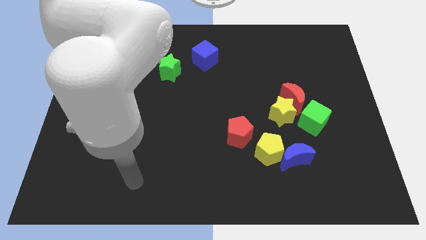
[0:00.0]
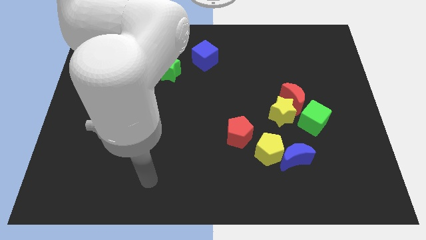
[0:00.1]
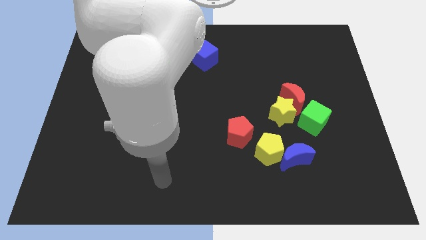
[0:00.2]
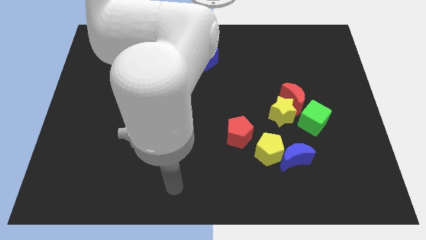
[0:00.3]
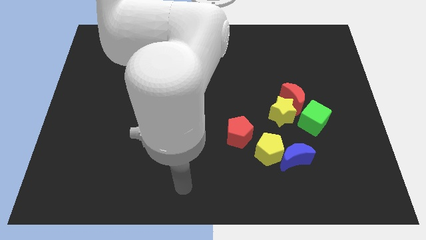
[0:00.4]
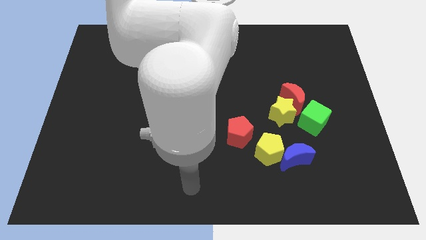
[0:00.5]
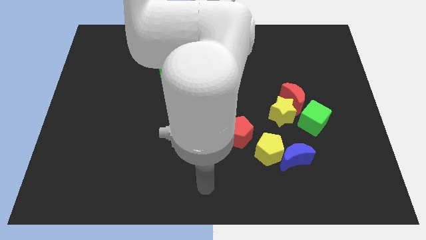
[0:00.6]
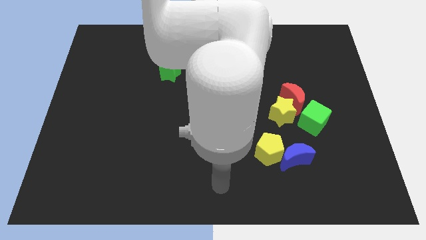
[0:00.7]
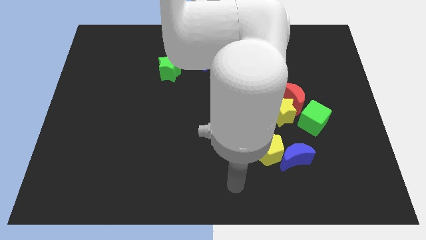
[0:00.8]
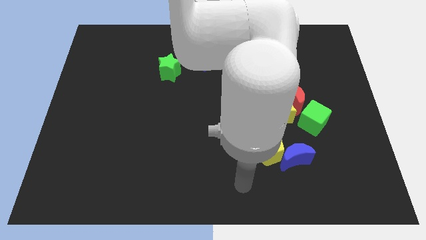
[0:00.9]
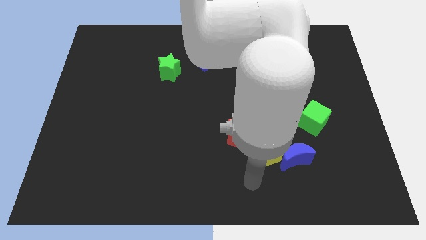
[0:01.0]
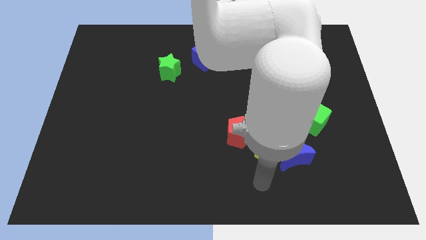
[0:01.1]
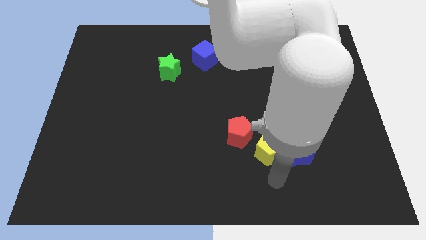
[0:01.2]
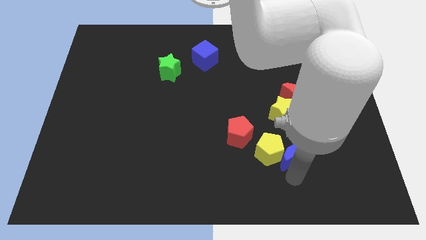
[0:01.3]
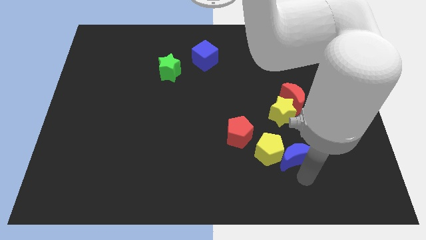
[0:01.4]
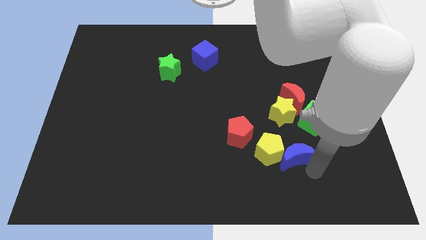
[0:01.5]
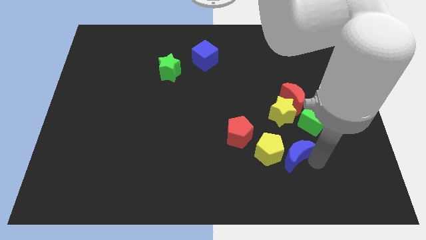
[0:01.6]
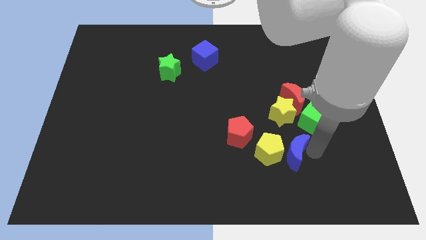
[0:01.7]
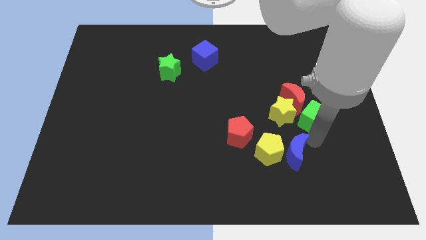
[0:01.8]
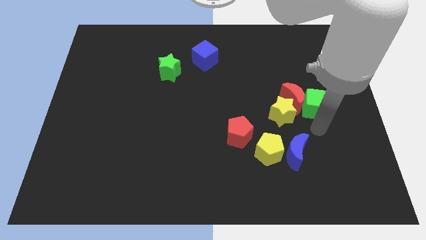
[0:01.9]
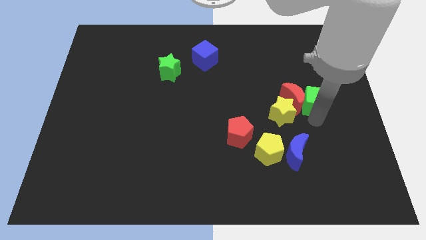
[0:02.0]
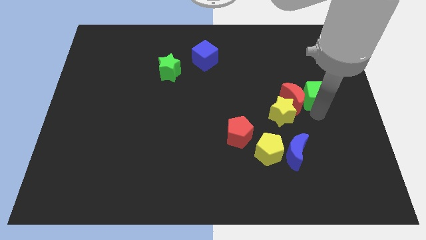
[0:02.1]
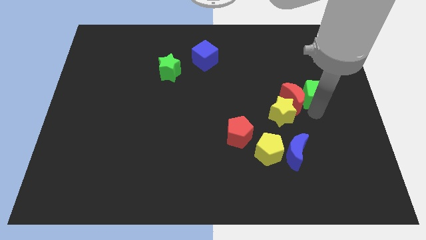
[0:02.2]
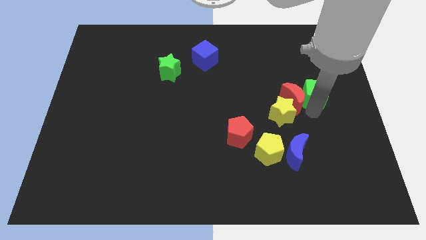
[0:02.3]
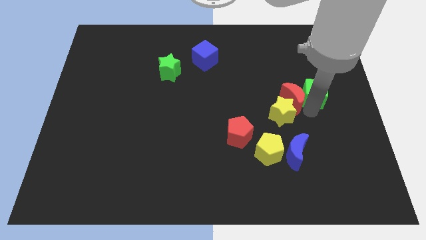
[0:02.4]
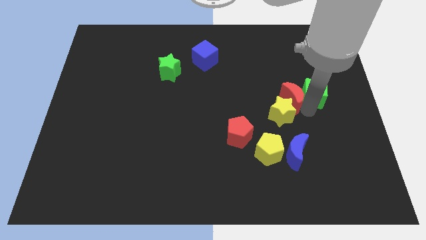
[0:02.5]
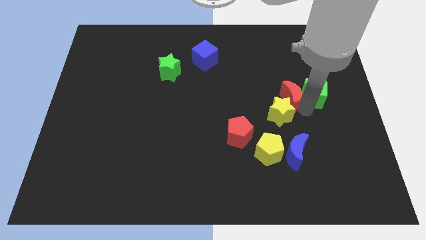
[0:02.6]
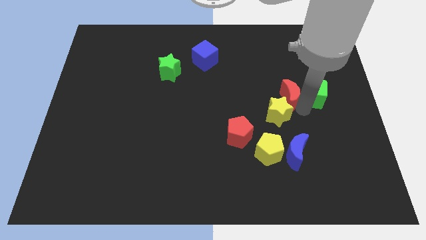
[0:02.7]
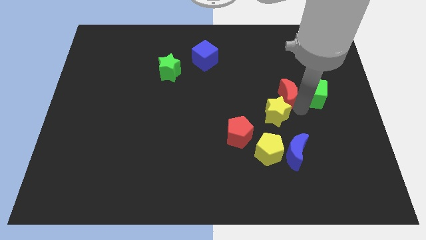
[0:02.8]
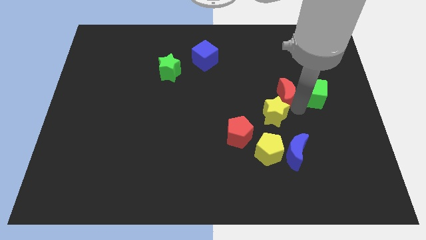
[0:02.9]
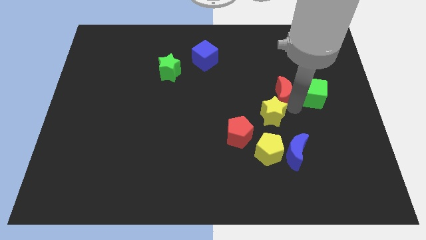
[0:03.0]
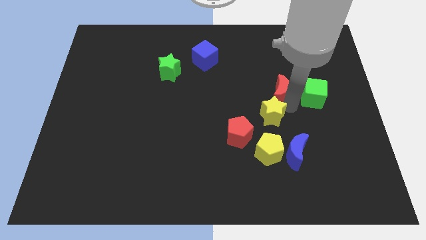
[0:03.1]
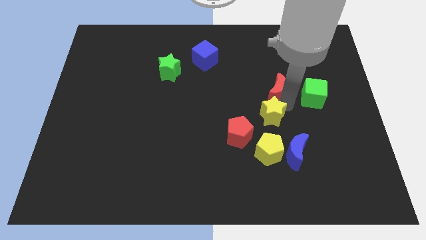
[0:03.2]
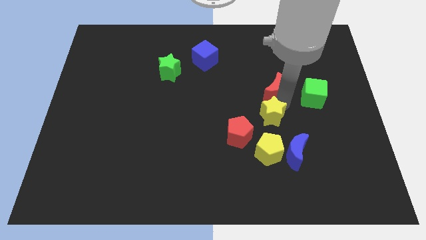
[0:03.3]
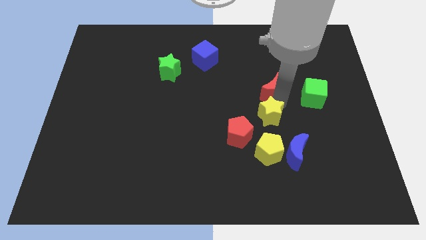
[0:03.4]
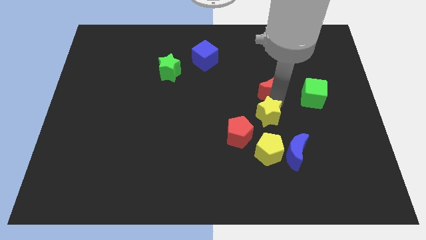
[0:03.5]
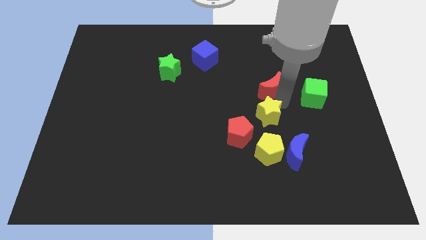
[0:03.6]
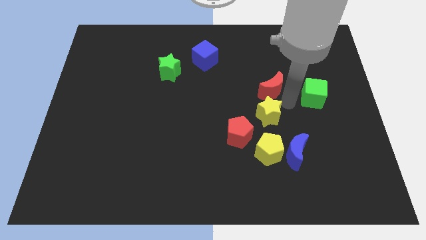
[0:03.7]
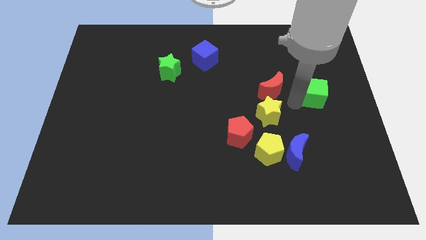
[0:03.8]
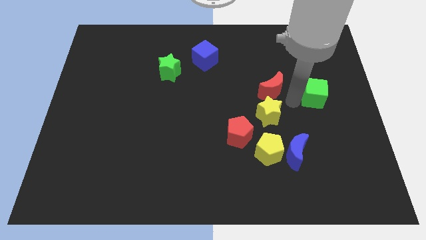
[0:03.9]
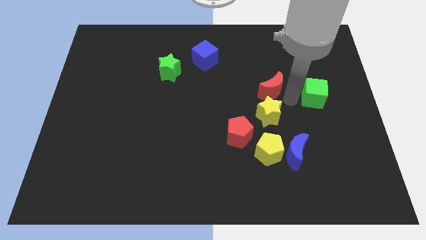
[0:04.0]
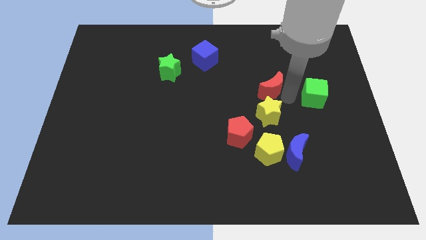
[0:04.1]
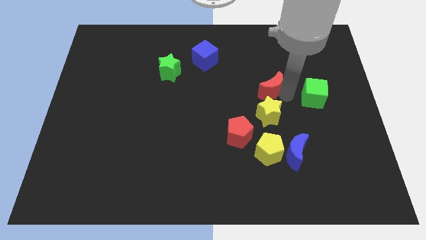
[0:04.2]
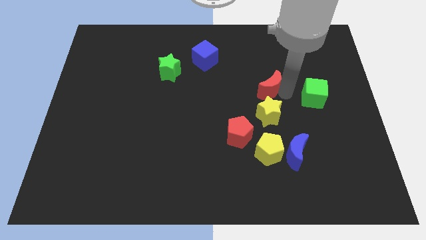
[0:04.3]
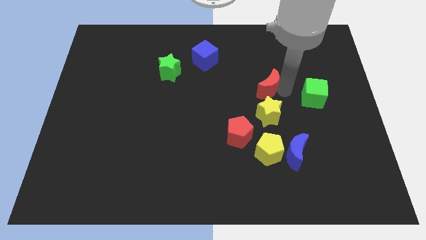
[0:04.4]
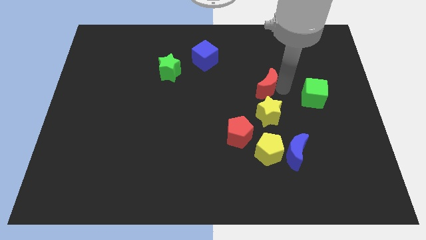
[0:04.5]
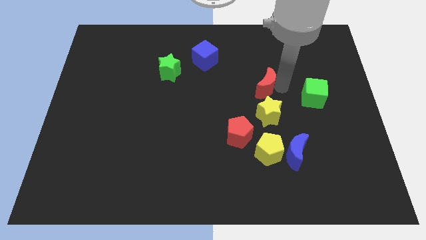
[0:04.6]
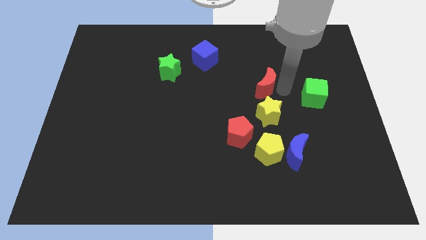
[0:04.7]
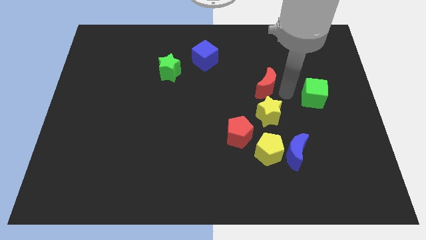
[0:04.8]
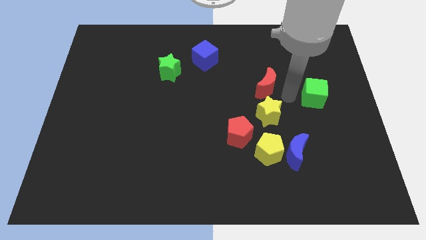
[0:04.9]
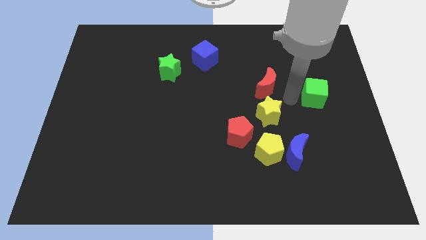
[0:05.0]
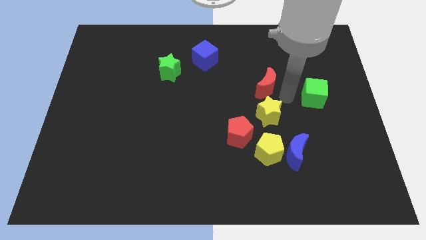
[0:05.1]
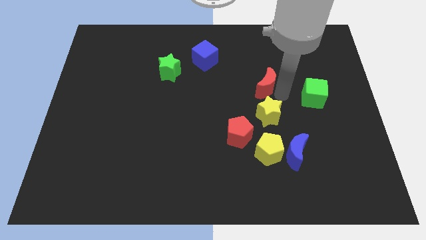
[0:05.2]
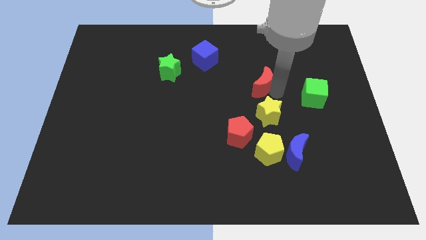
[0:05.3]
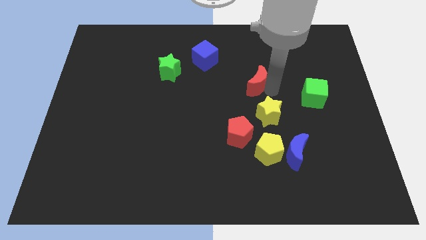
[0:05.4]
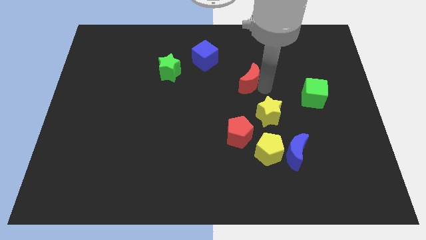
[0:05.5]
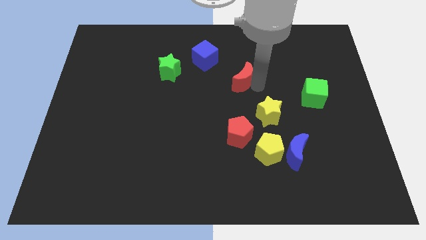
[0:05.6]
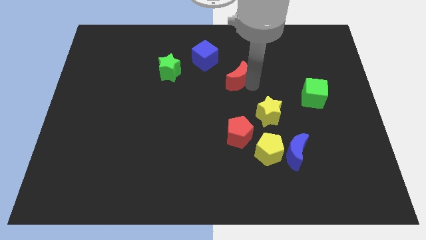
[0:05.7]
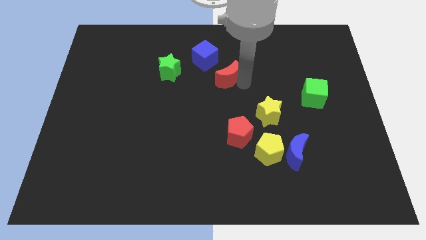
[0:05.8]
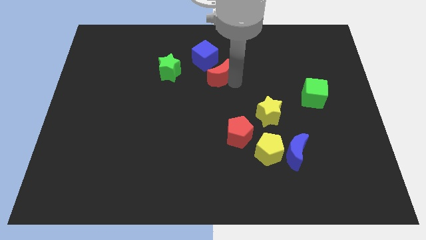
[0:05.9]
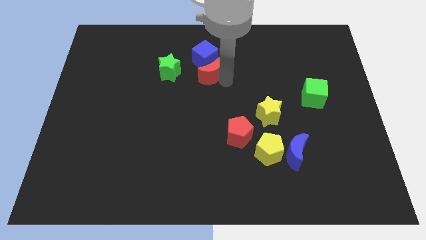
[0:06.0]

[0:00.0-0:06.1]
push the red moon next to the blue cube

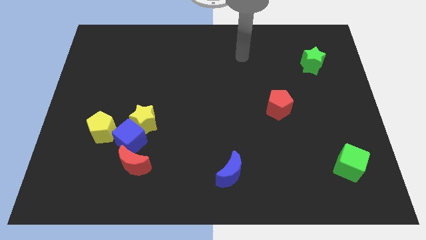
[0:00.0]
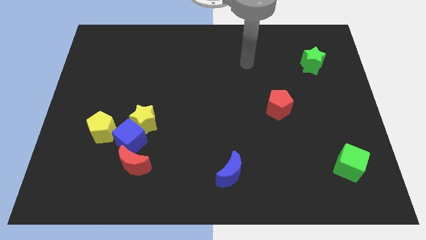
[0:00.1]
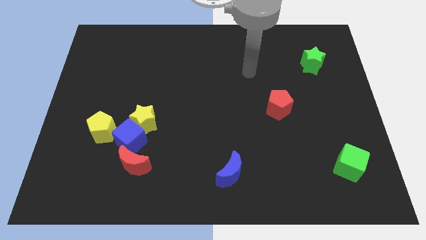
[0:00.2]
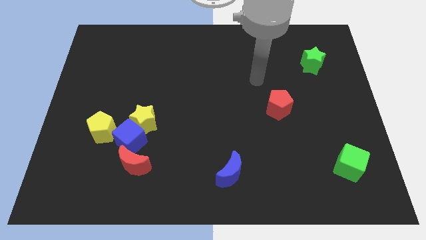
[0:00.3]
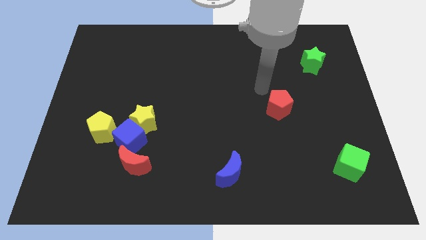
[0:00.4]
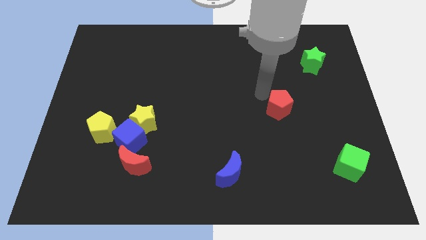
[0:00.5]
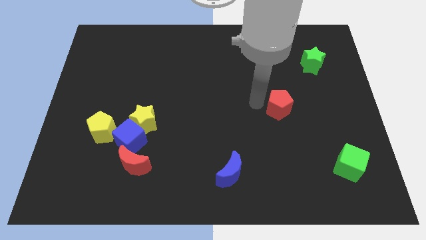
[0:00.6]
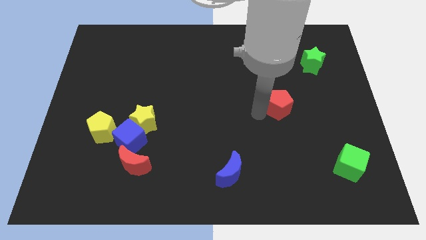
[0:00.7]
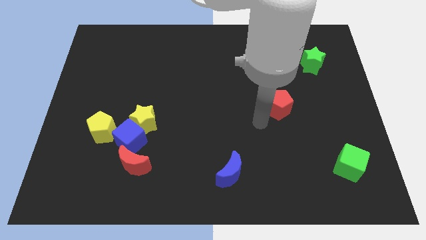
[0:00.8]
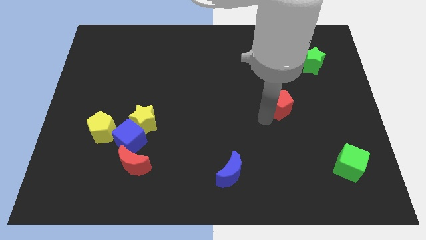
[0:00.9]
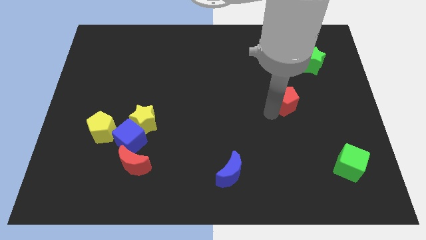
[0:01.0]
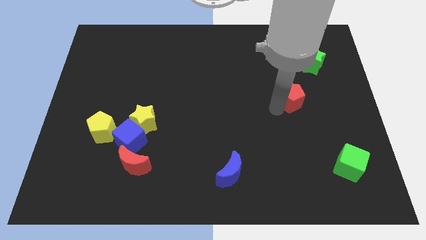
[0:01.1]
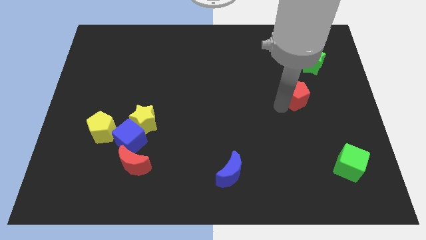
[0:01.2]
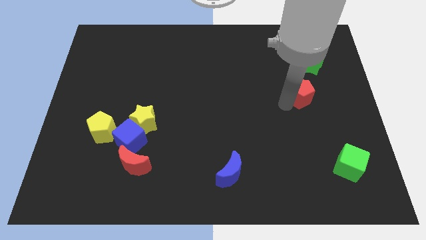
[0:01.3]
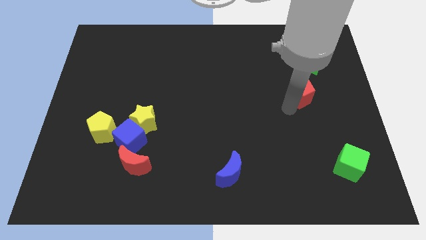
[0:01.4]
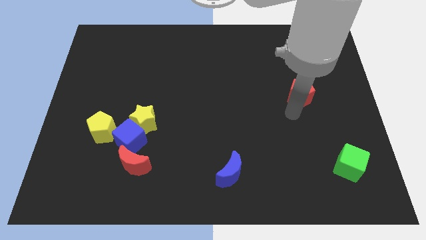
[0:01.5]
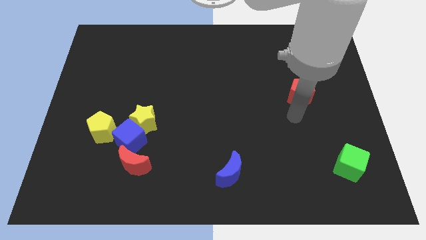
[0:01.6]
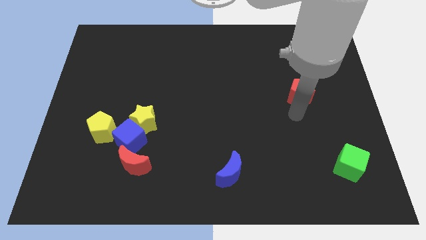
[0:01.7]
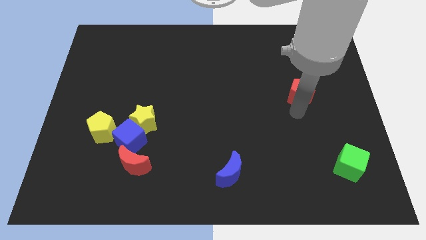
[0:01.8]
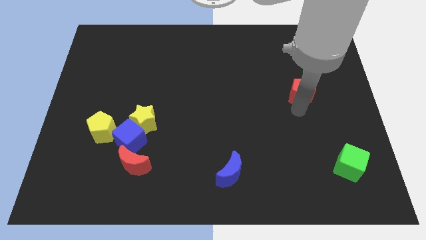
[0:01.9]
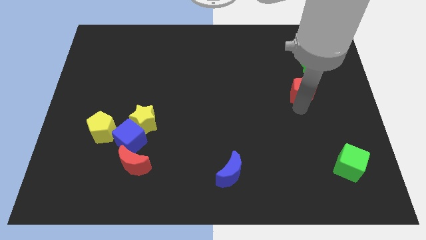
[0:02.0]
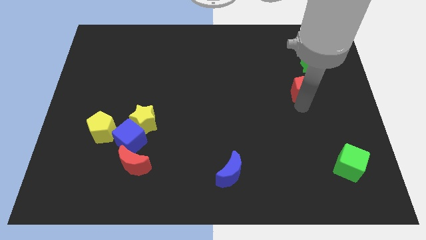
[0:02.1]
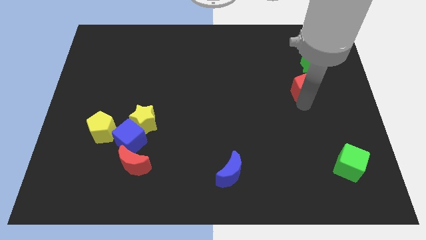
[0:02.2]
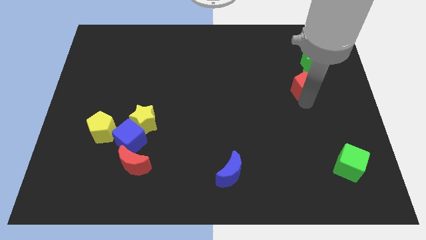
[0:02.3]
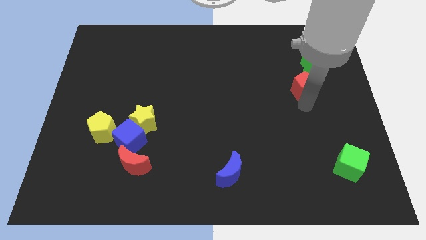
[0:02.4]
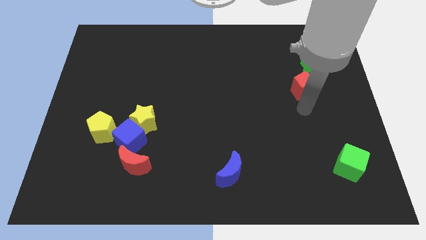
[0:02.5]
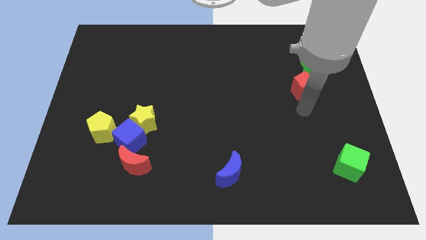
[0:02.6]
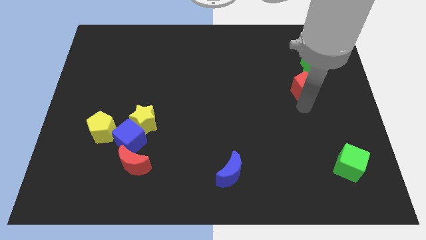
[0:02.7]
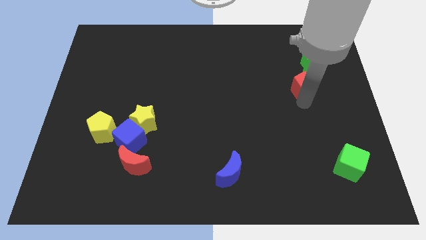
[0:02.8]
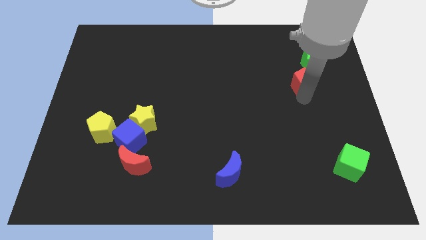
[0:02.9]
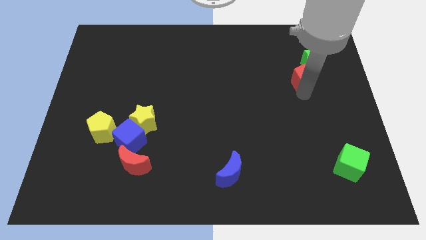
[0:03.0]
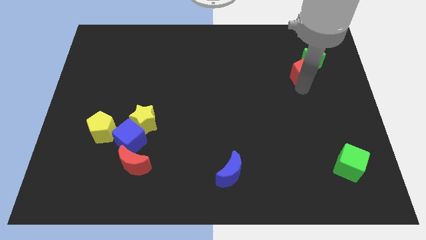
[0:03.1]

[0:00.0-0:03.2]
slide the red pentagon next to the green star
